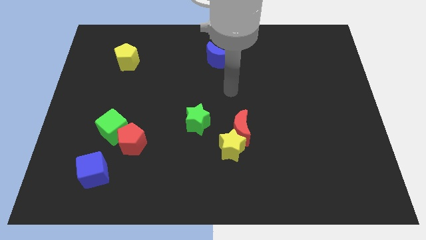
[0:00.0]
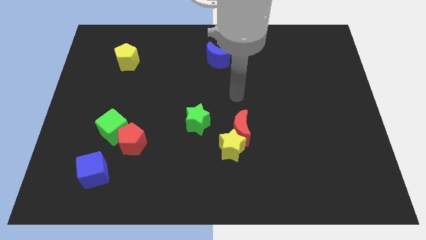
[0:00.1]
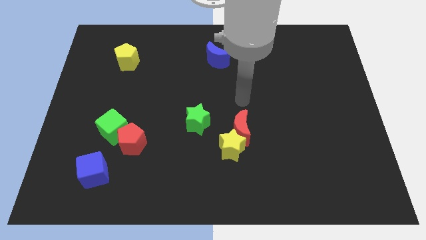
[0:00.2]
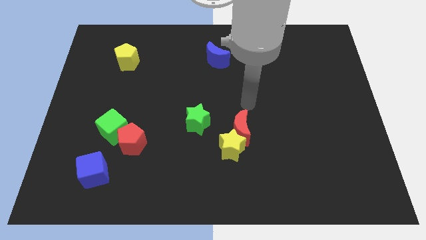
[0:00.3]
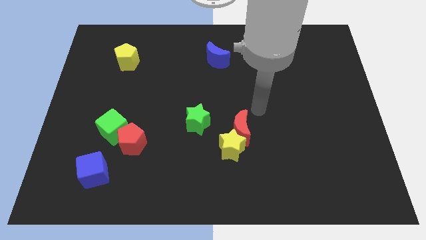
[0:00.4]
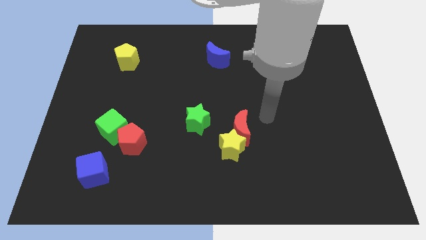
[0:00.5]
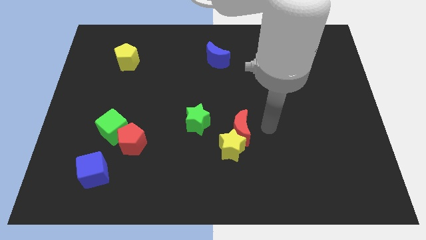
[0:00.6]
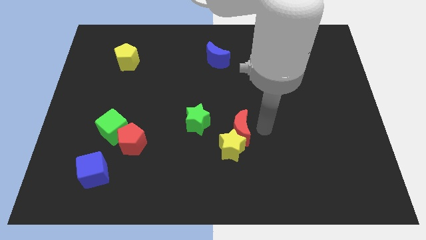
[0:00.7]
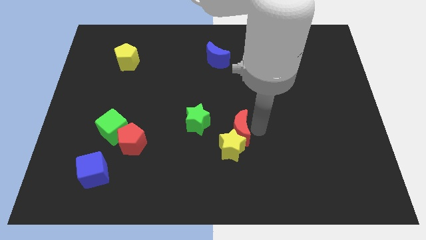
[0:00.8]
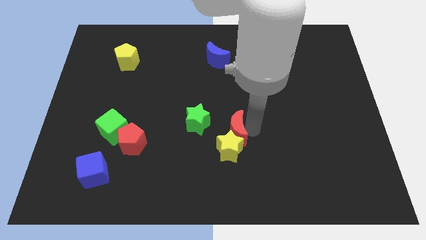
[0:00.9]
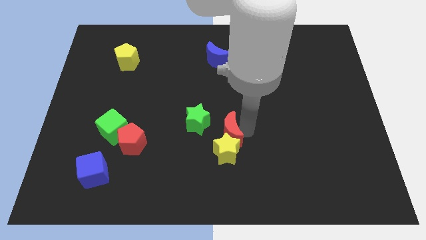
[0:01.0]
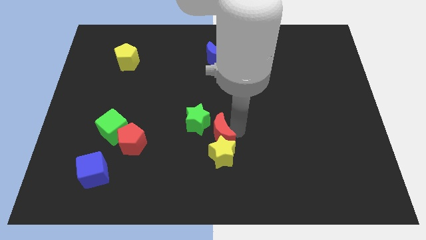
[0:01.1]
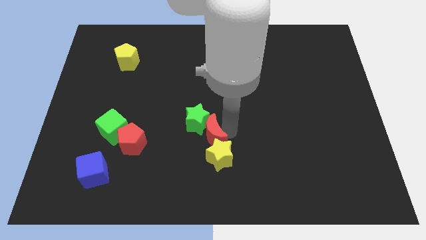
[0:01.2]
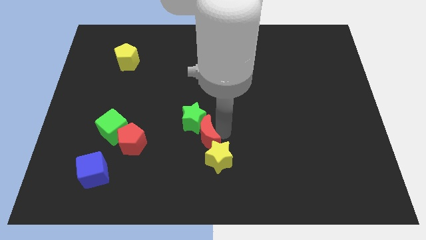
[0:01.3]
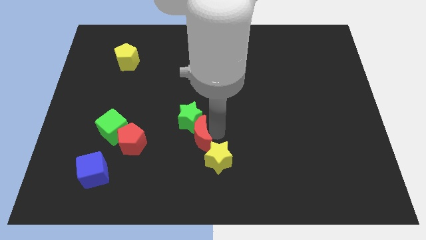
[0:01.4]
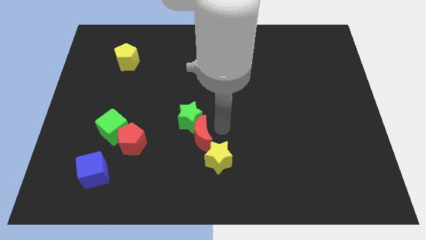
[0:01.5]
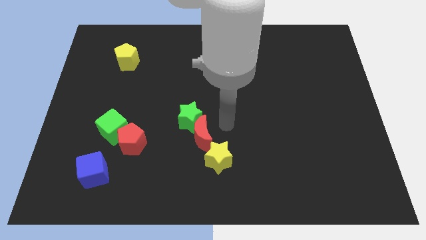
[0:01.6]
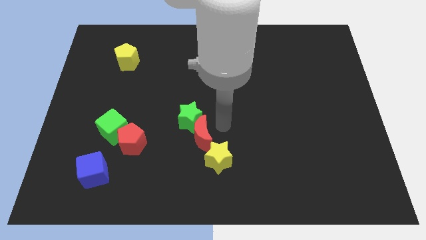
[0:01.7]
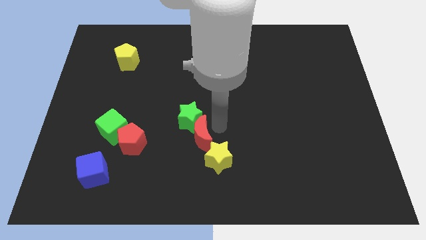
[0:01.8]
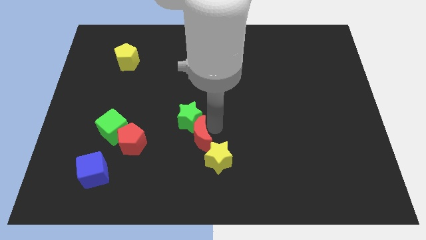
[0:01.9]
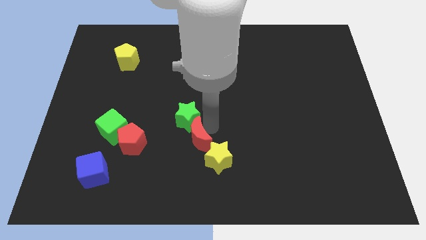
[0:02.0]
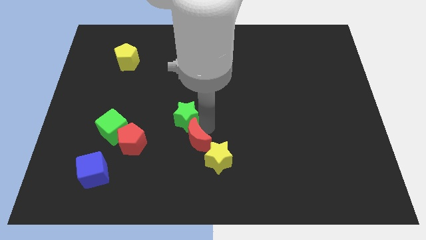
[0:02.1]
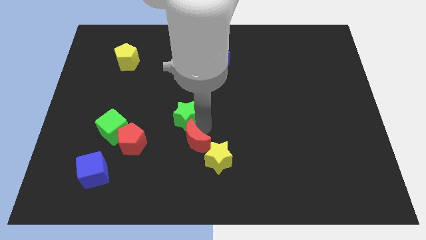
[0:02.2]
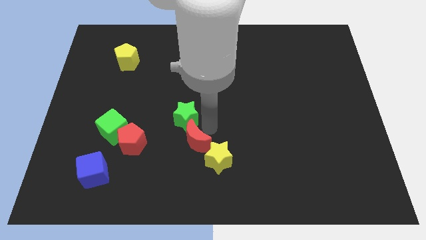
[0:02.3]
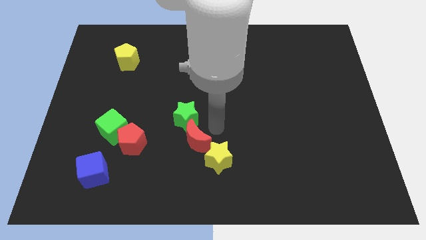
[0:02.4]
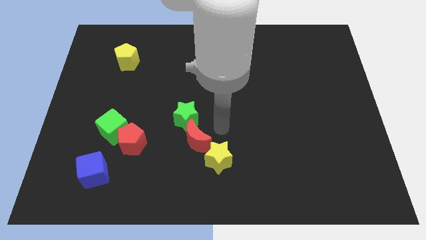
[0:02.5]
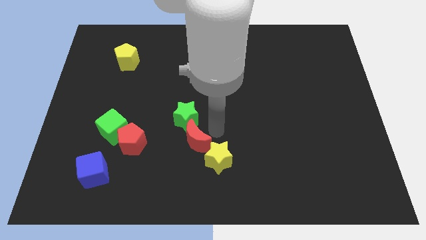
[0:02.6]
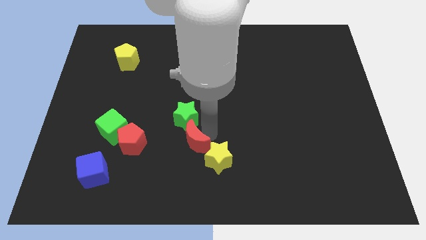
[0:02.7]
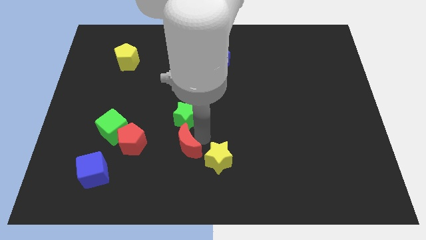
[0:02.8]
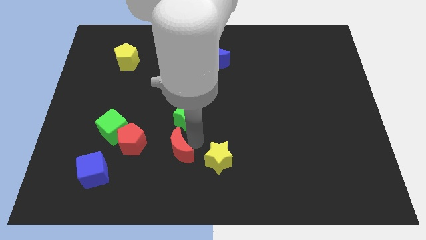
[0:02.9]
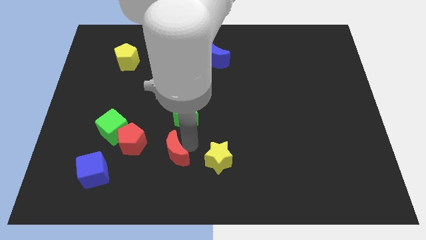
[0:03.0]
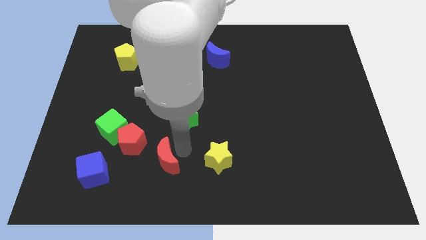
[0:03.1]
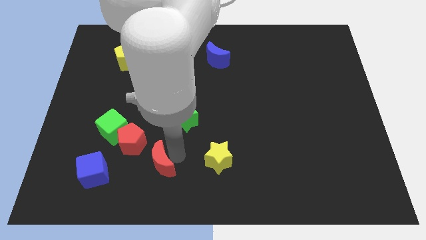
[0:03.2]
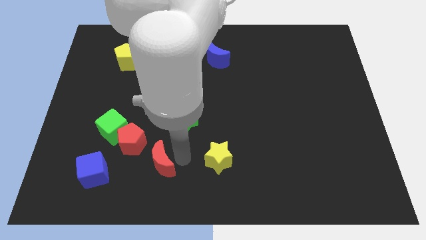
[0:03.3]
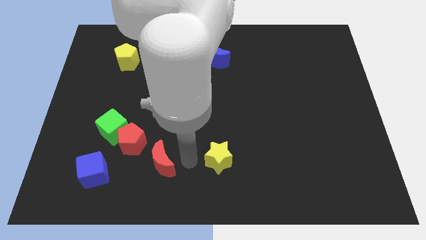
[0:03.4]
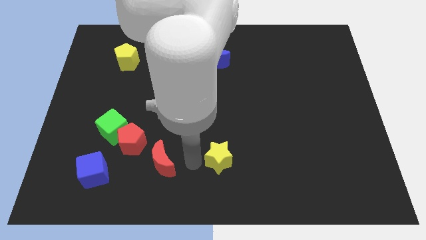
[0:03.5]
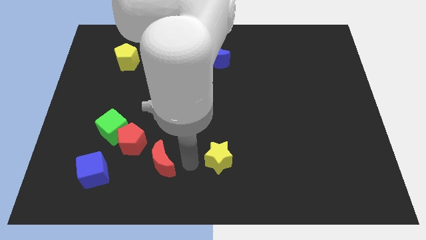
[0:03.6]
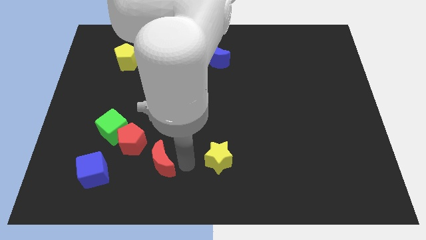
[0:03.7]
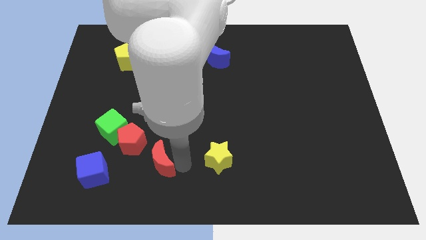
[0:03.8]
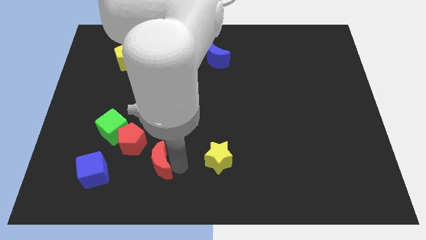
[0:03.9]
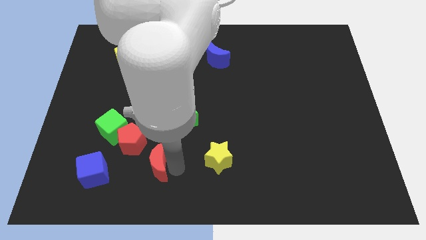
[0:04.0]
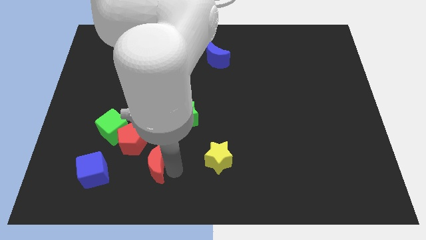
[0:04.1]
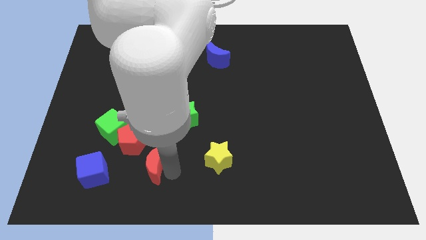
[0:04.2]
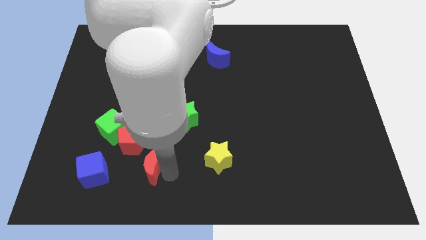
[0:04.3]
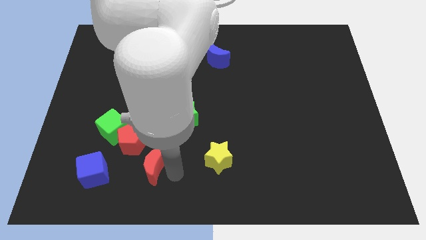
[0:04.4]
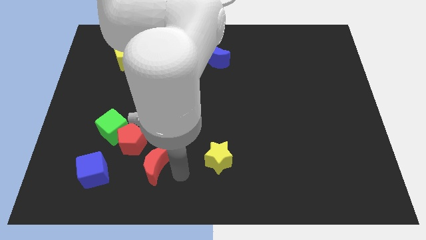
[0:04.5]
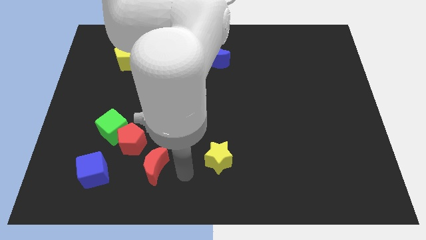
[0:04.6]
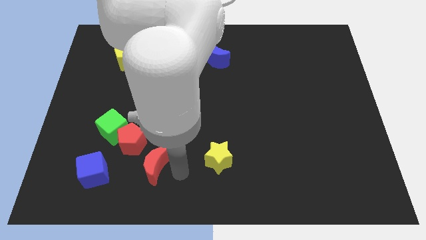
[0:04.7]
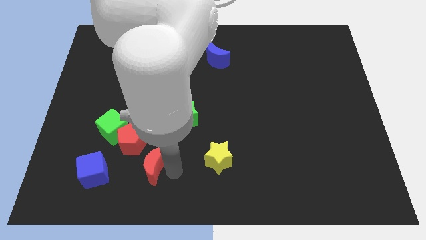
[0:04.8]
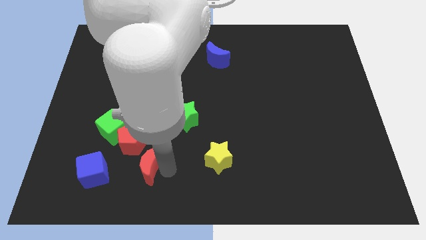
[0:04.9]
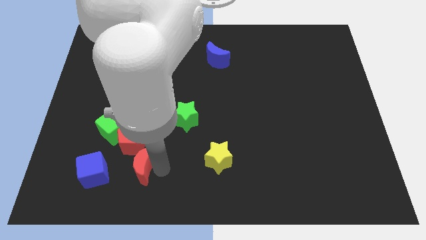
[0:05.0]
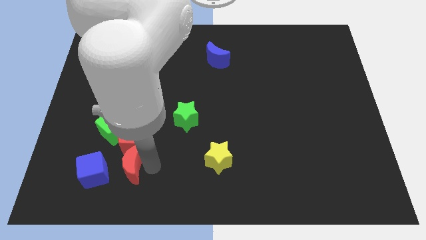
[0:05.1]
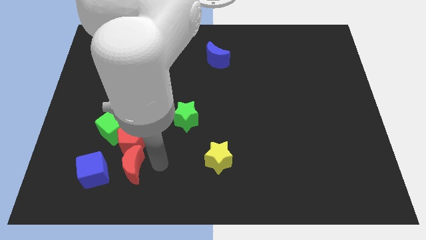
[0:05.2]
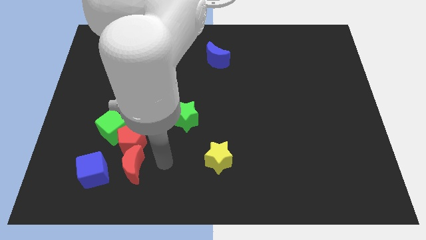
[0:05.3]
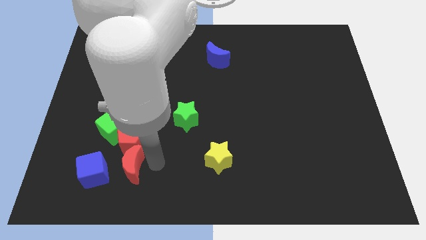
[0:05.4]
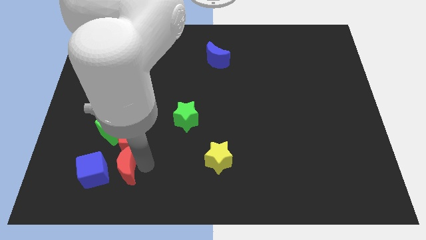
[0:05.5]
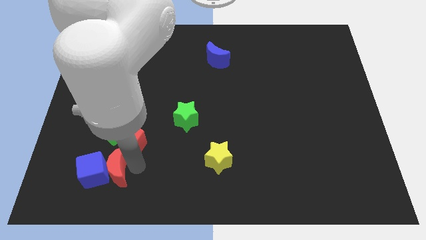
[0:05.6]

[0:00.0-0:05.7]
push the red moon next to the blue cube
